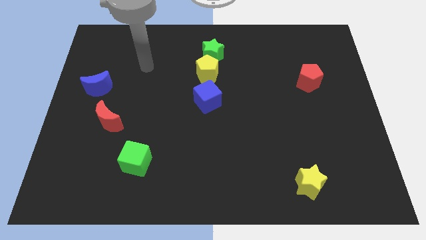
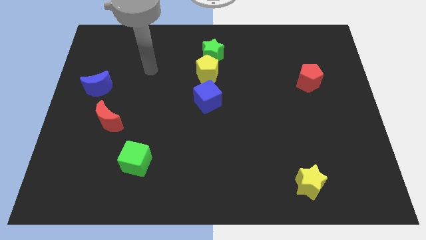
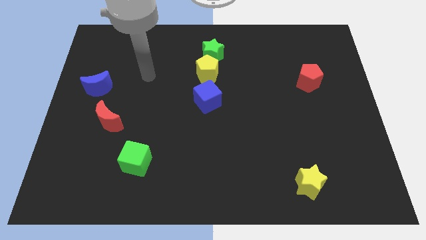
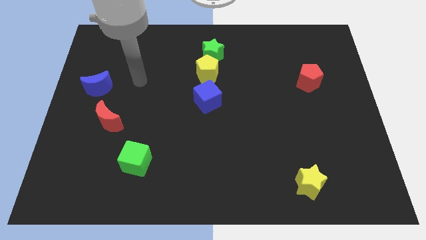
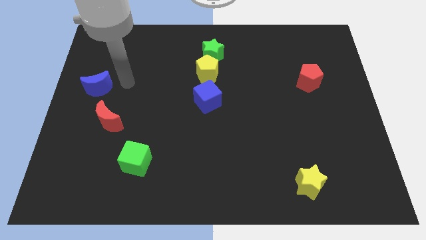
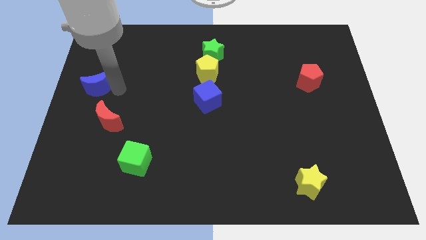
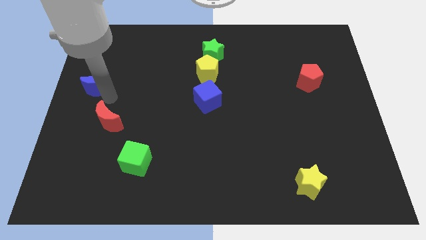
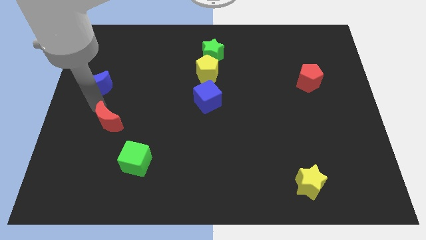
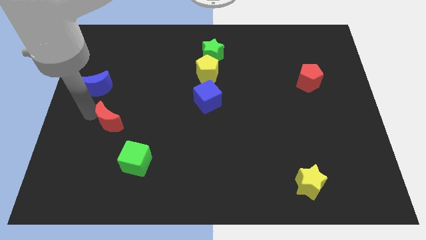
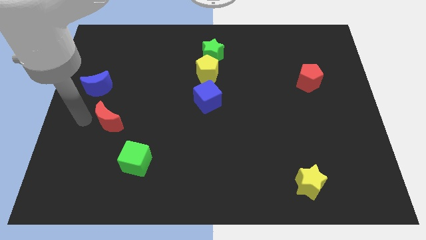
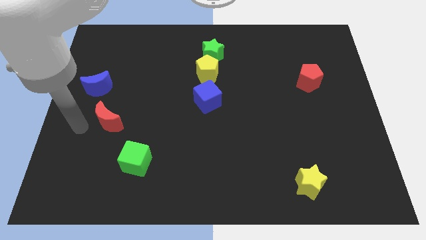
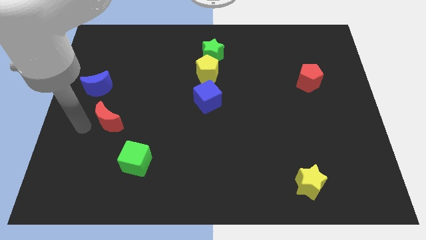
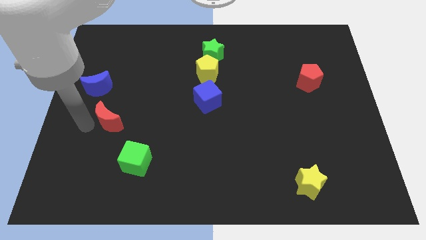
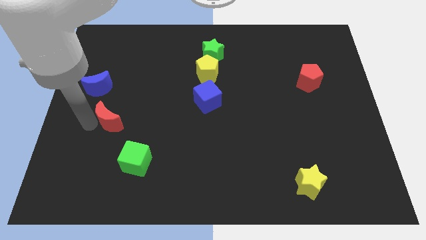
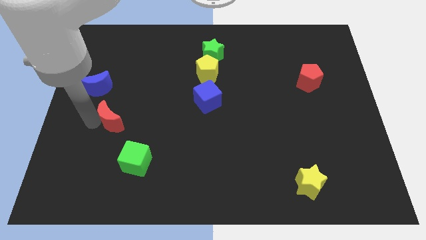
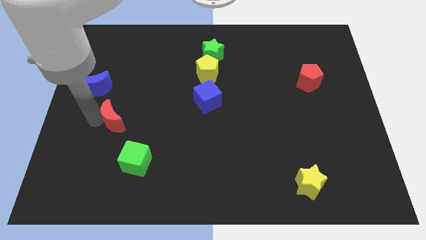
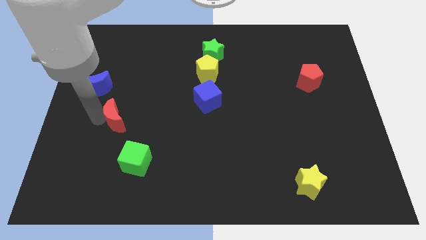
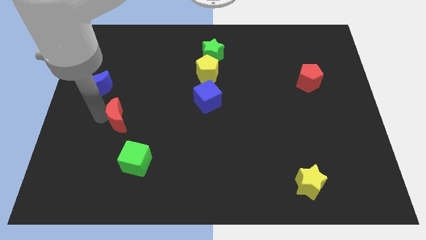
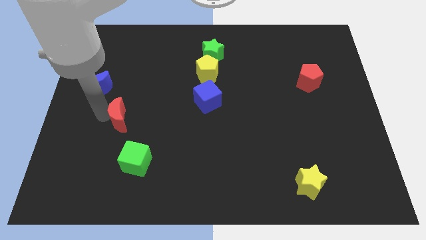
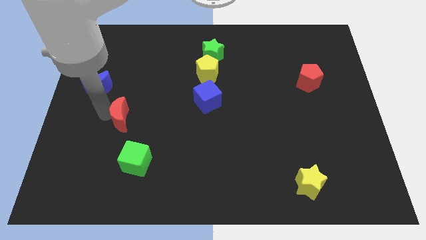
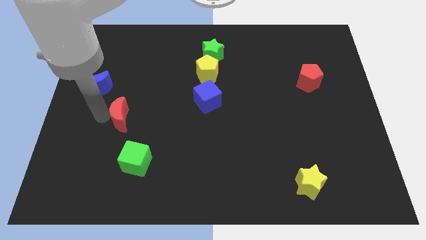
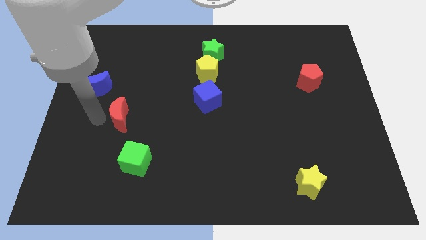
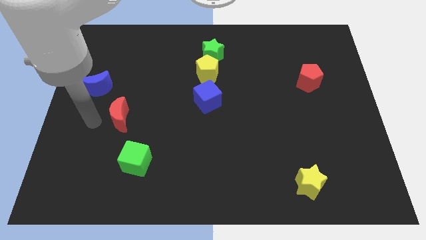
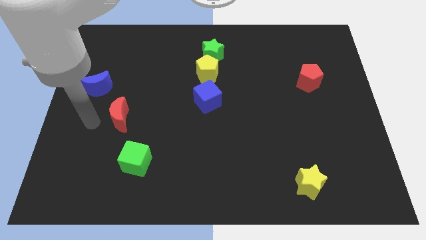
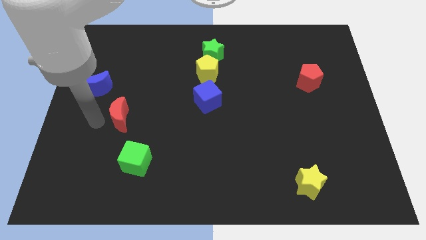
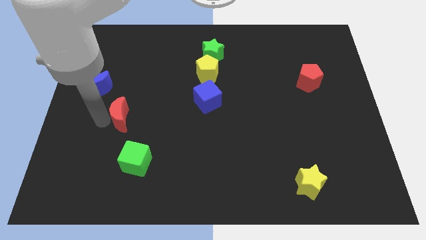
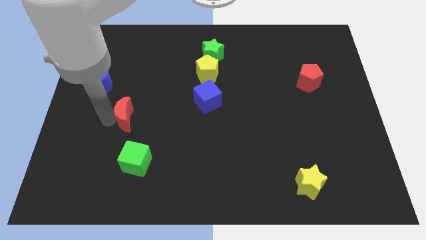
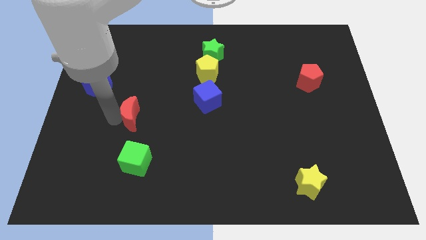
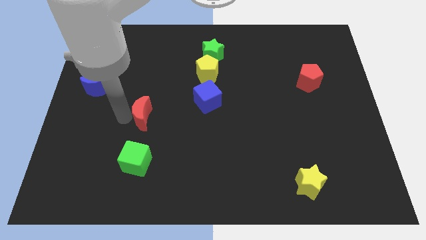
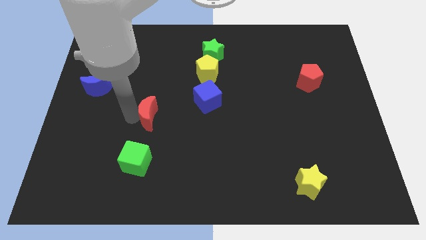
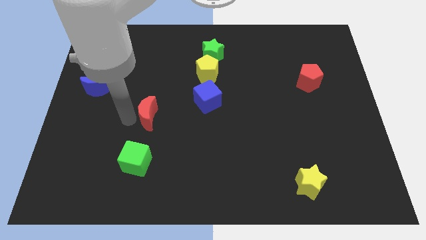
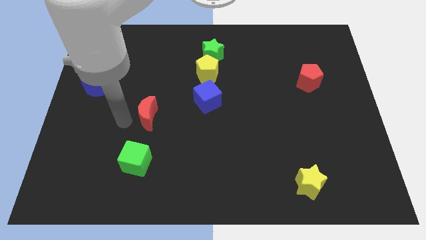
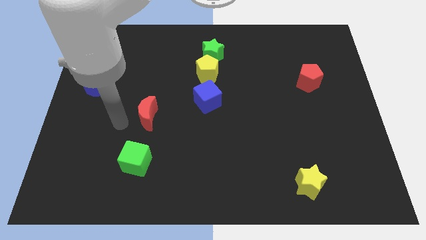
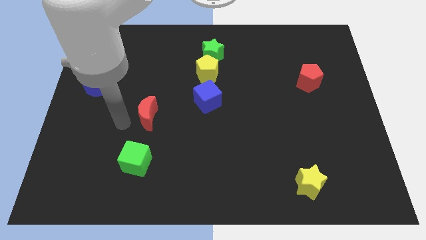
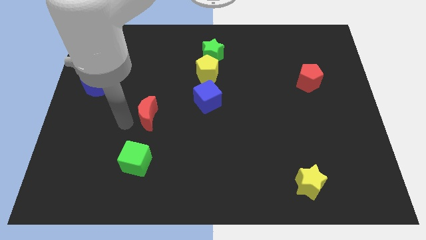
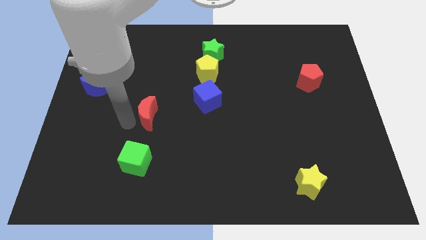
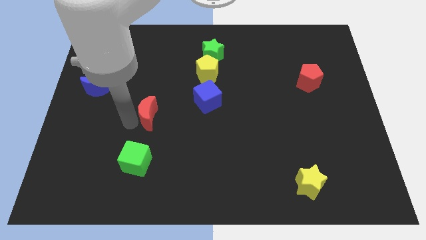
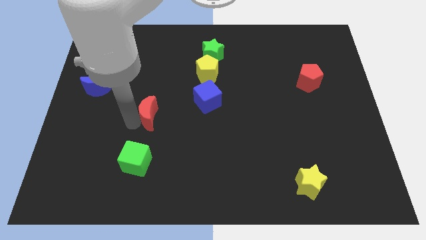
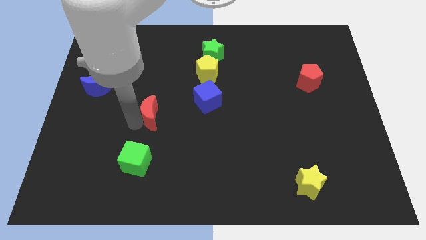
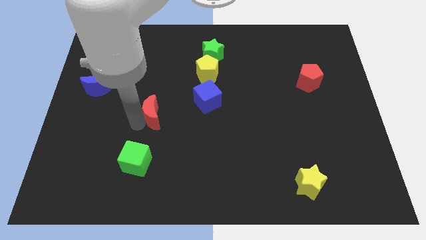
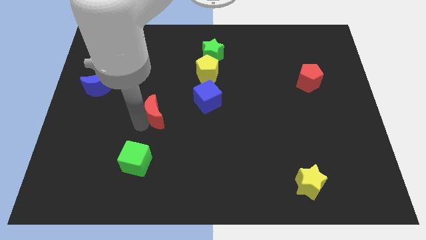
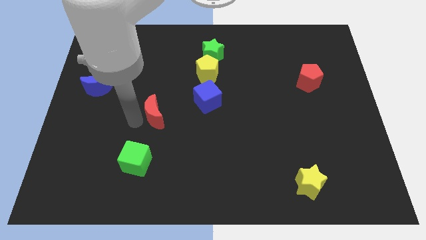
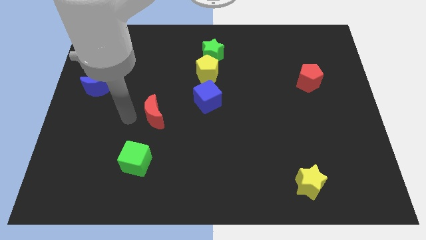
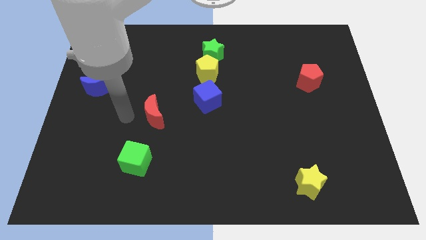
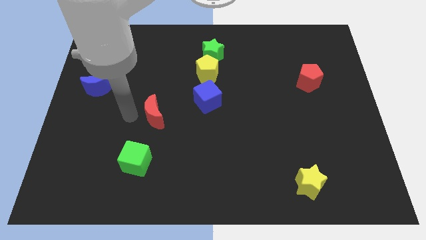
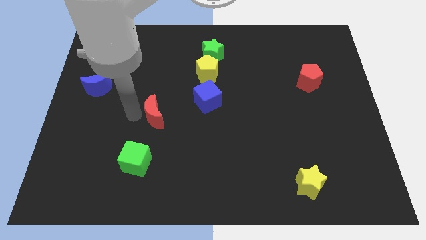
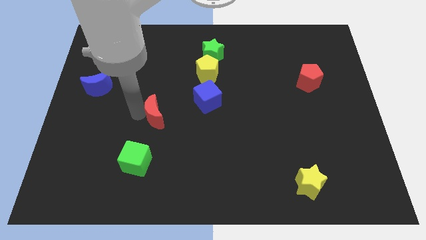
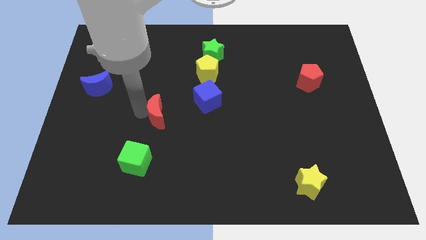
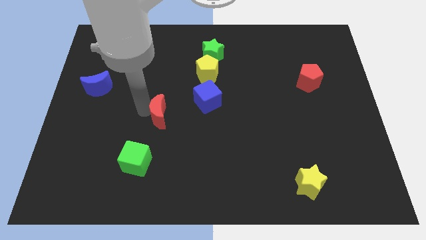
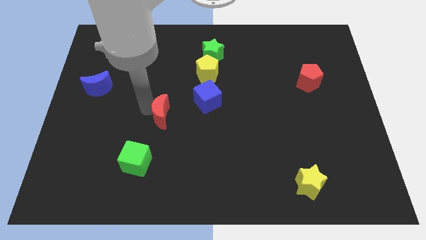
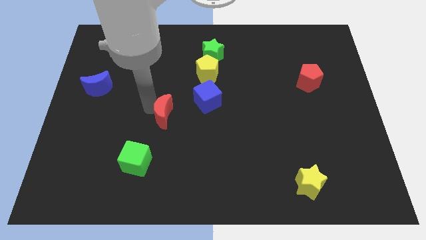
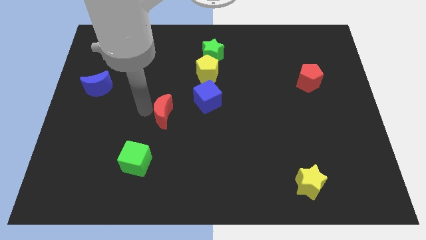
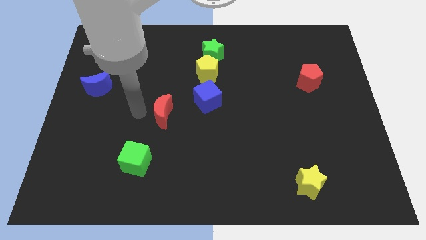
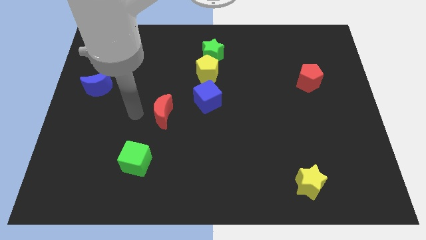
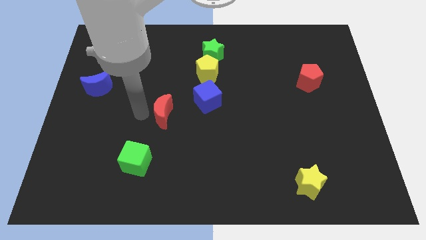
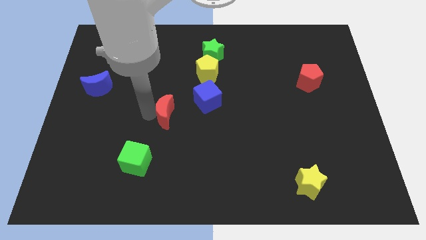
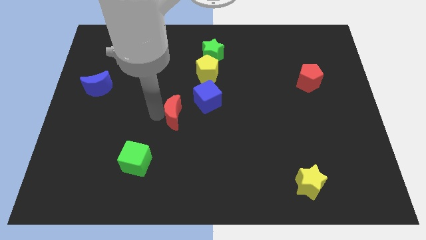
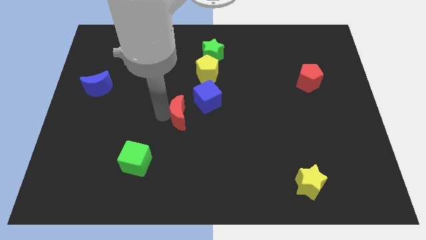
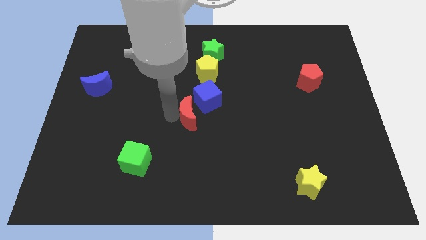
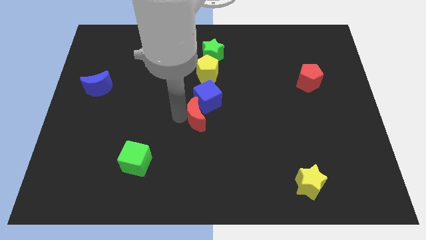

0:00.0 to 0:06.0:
push the red moon right

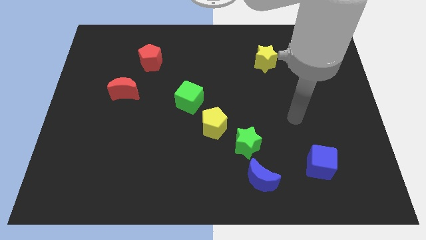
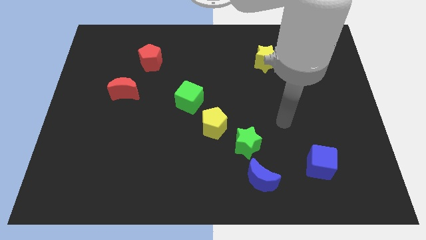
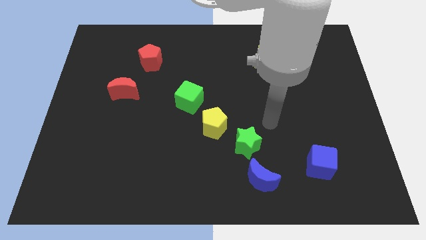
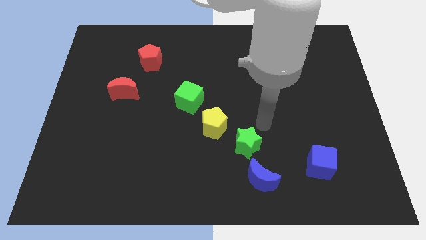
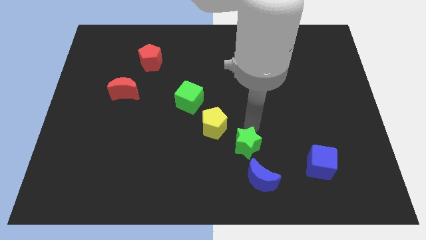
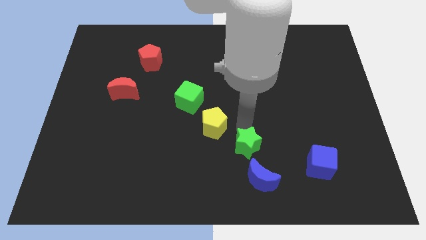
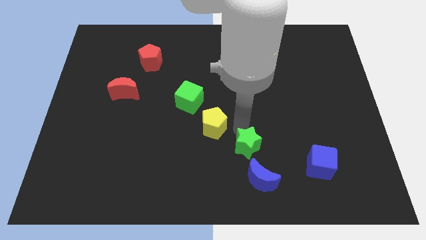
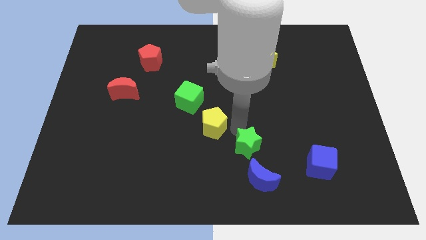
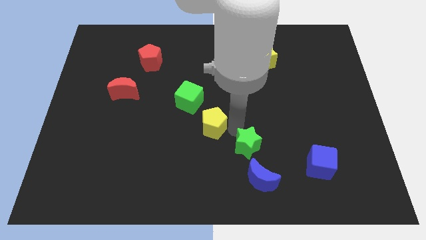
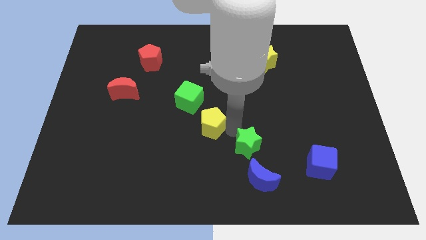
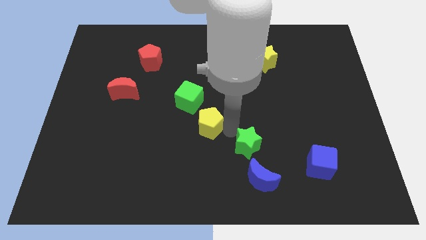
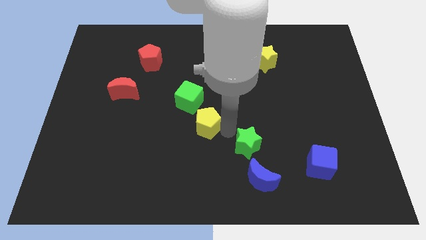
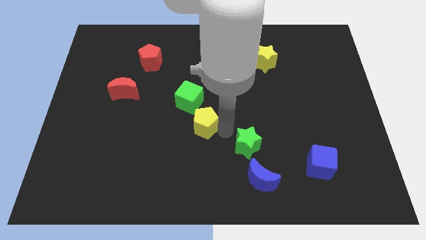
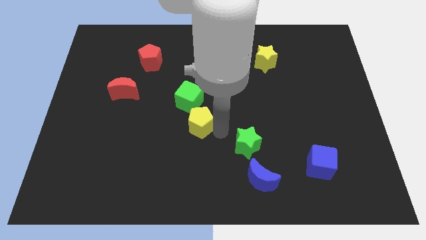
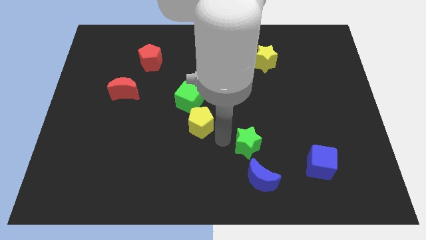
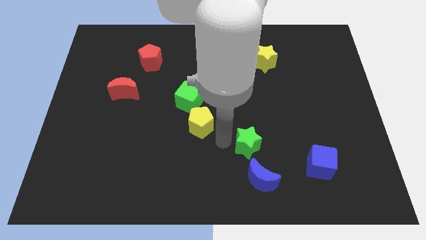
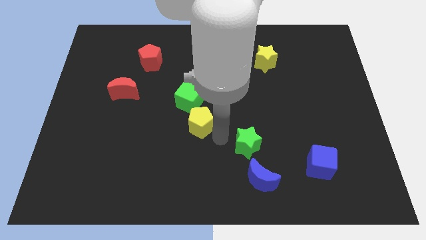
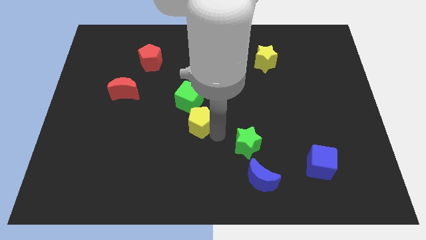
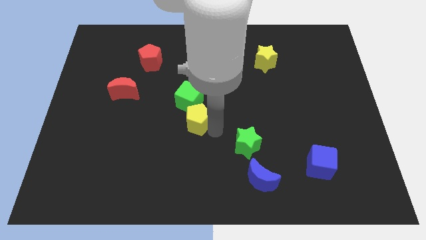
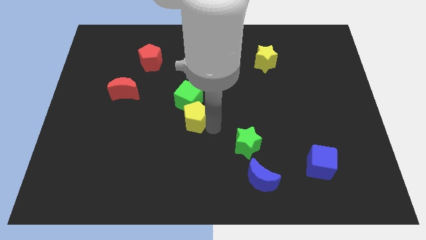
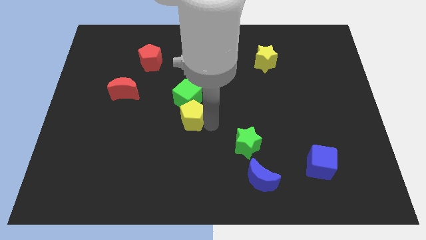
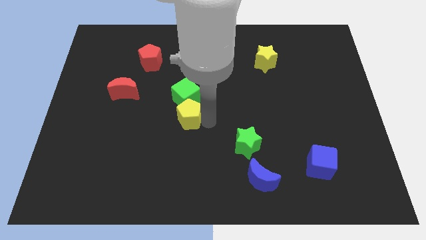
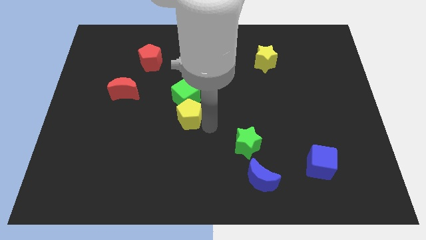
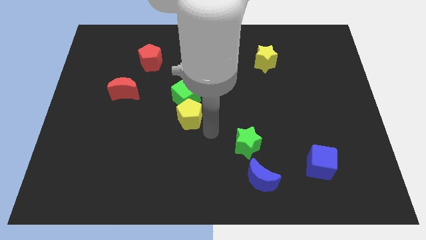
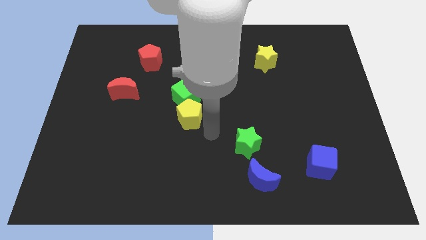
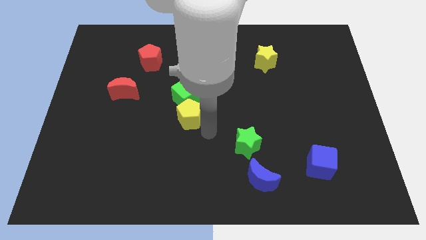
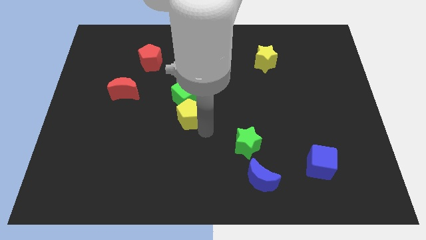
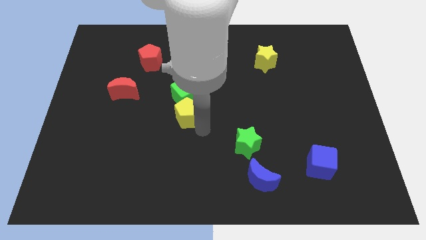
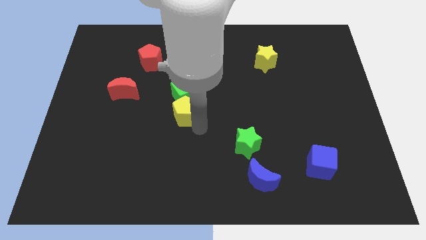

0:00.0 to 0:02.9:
push the yellow pentagon up and then to the left somewhat
